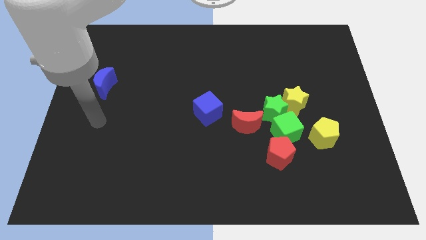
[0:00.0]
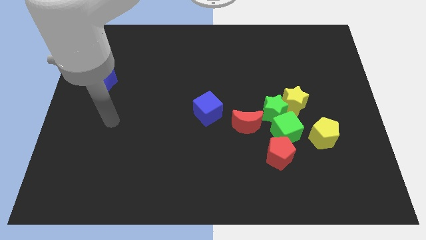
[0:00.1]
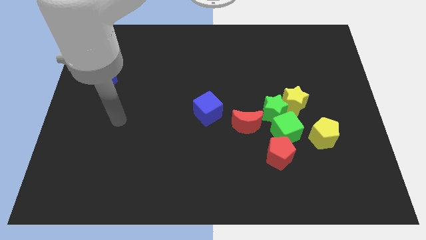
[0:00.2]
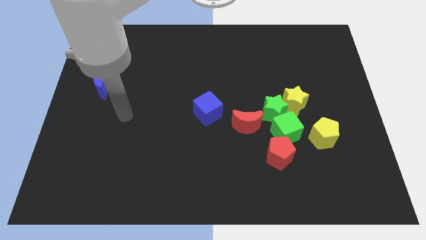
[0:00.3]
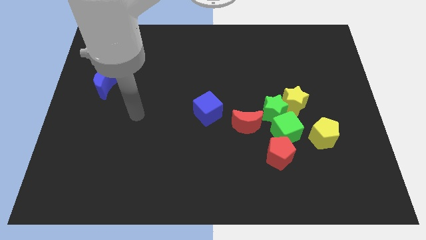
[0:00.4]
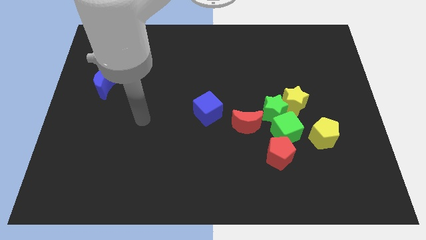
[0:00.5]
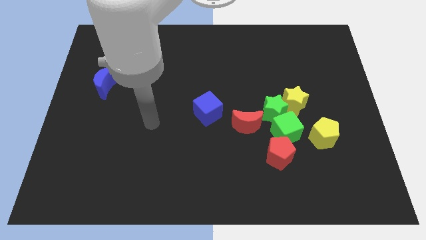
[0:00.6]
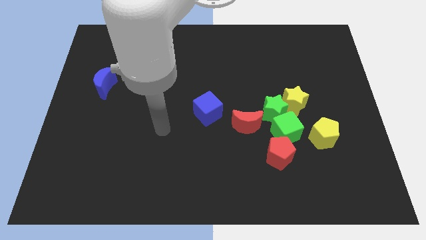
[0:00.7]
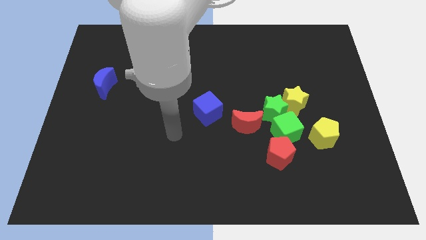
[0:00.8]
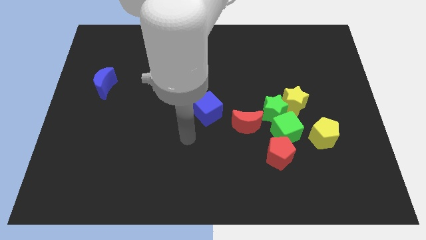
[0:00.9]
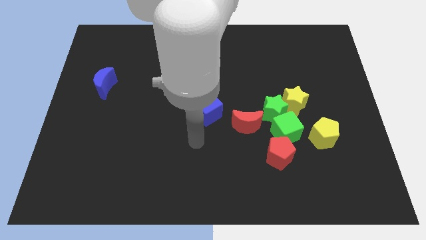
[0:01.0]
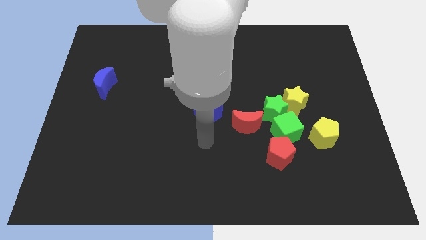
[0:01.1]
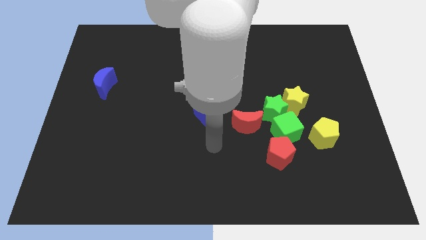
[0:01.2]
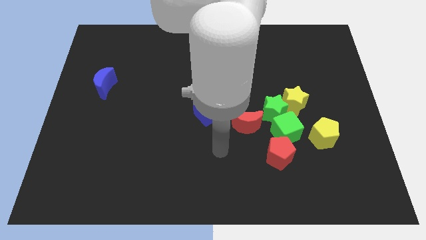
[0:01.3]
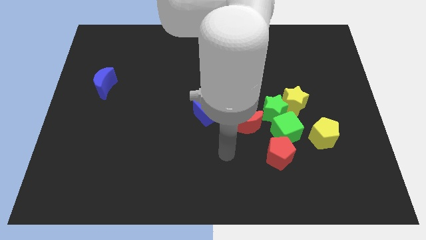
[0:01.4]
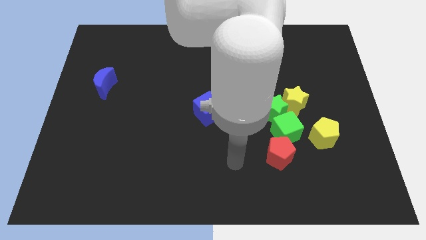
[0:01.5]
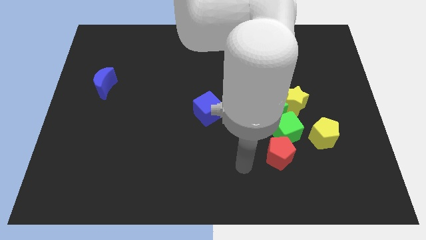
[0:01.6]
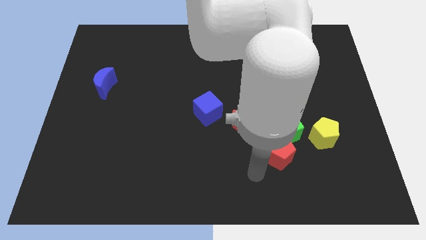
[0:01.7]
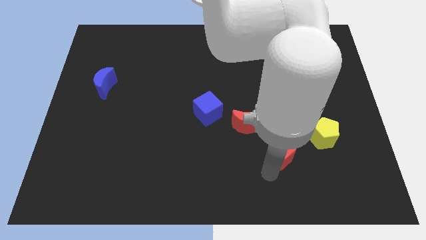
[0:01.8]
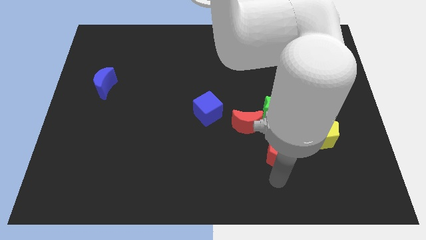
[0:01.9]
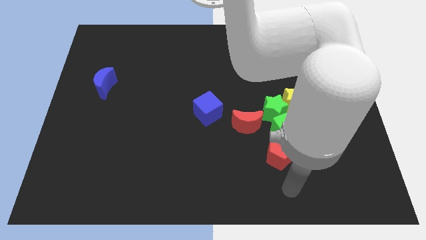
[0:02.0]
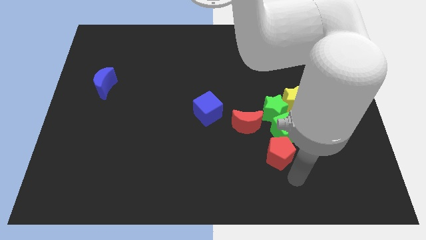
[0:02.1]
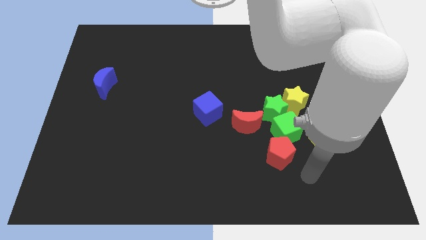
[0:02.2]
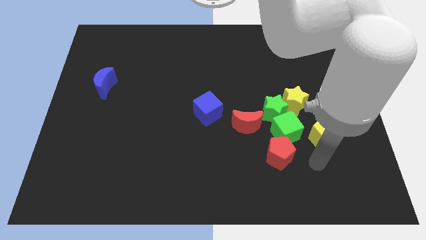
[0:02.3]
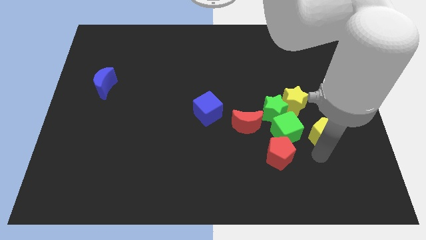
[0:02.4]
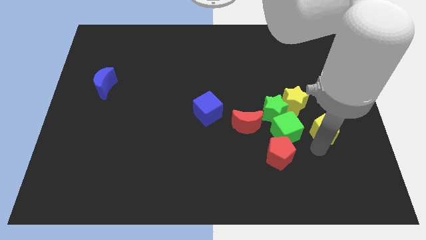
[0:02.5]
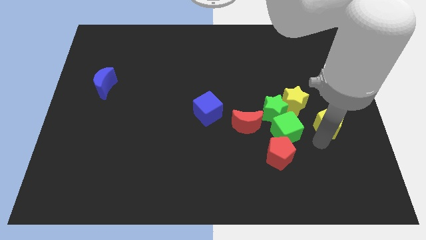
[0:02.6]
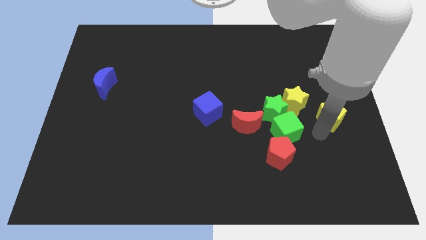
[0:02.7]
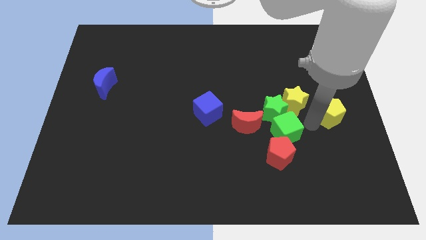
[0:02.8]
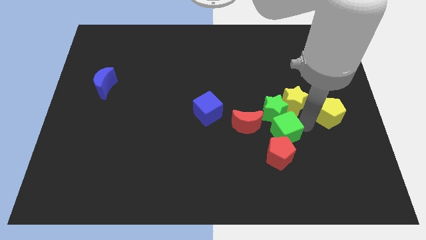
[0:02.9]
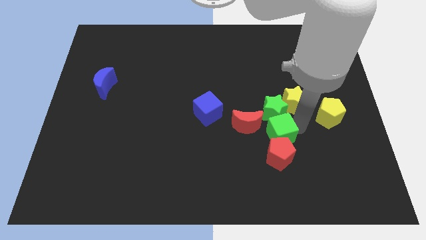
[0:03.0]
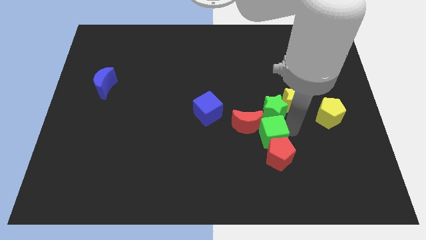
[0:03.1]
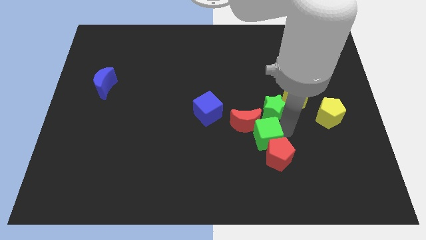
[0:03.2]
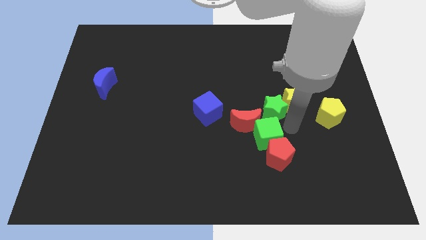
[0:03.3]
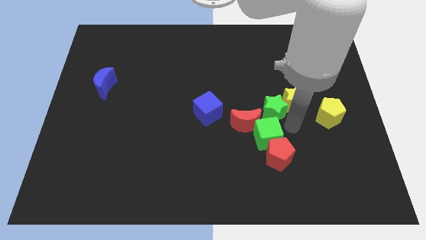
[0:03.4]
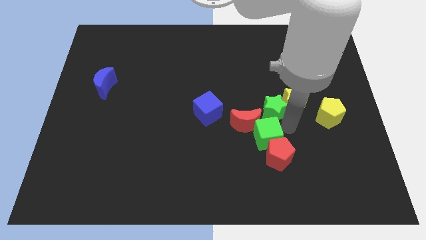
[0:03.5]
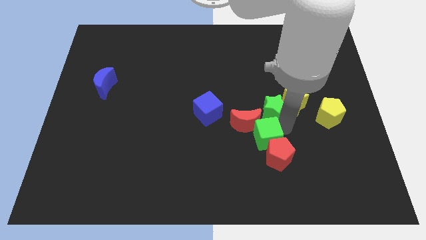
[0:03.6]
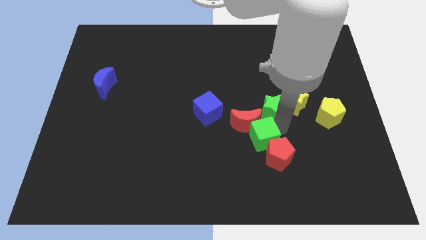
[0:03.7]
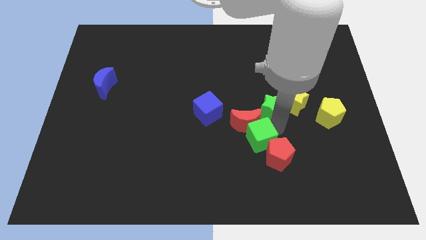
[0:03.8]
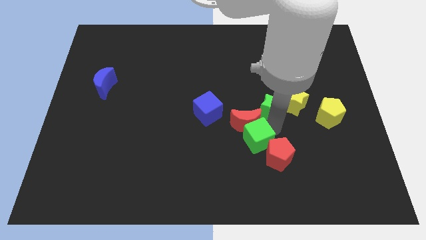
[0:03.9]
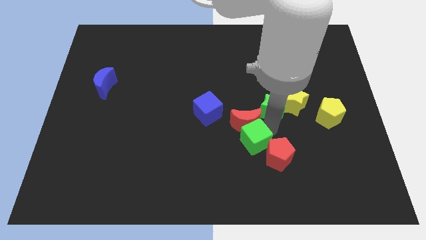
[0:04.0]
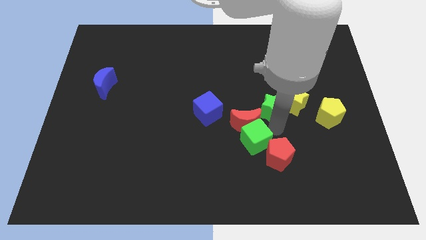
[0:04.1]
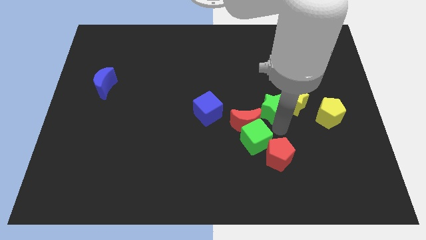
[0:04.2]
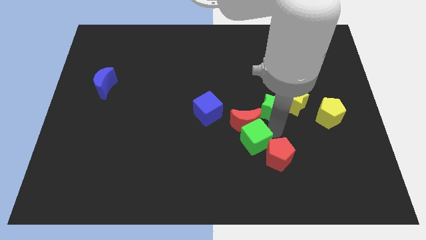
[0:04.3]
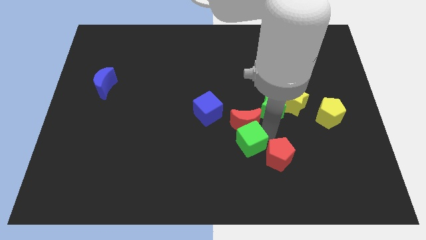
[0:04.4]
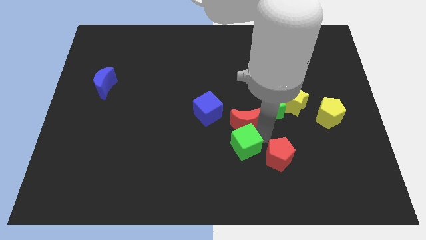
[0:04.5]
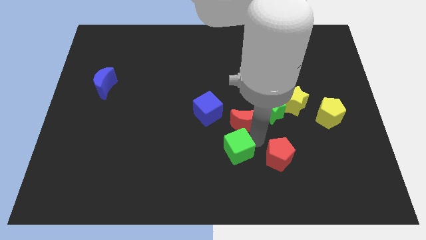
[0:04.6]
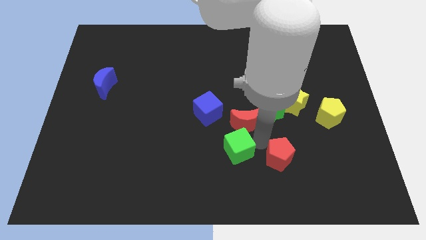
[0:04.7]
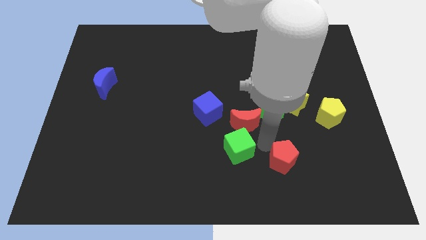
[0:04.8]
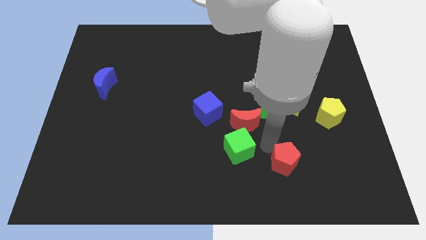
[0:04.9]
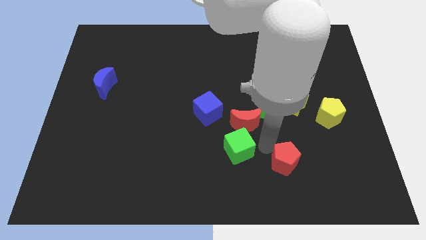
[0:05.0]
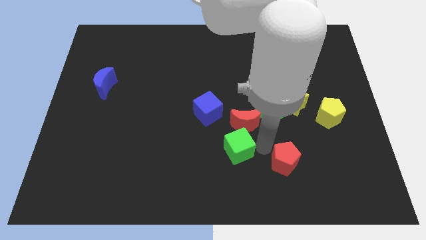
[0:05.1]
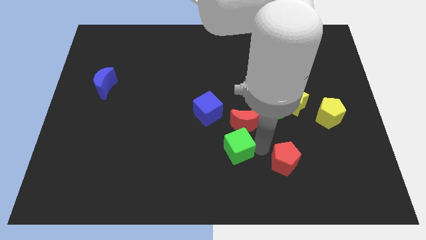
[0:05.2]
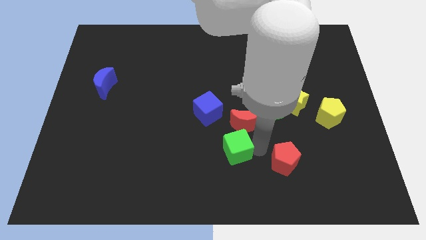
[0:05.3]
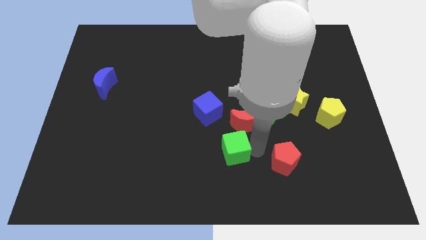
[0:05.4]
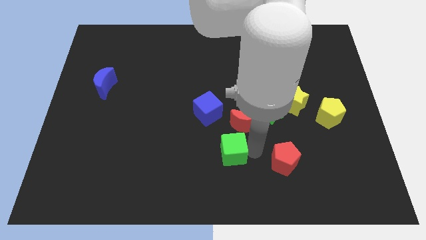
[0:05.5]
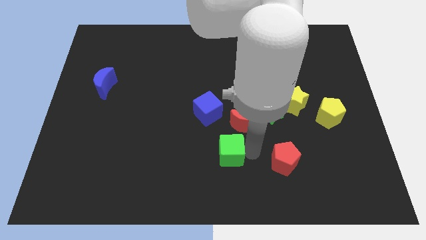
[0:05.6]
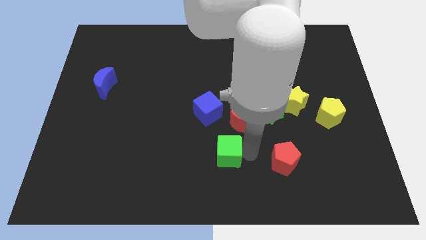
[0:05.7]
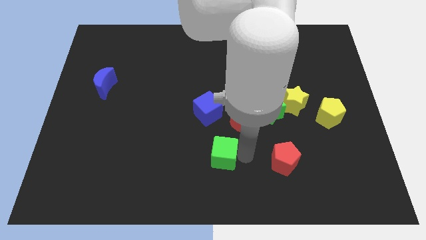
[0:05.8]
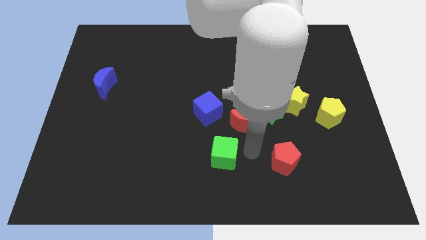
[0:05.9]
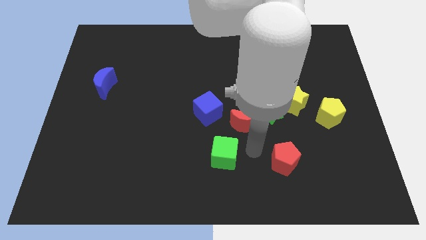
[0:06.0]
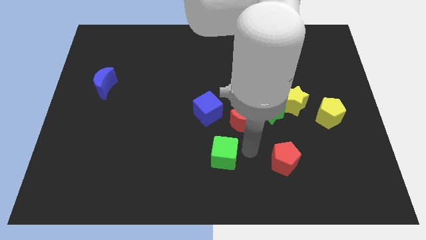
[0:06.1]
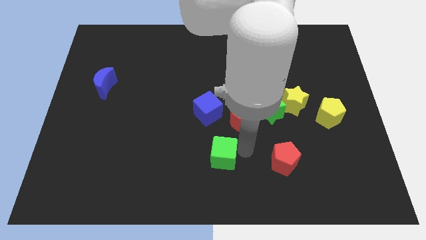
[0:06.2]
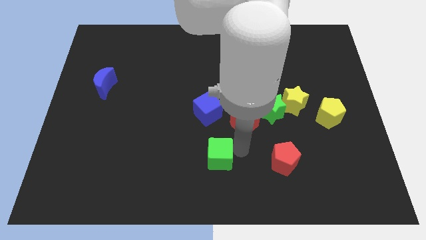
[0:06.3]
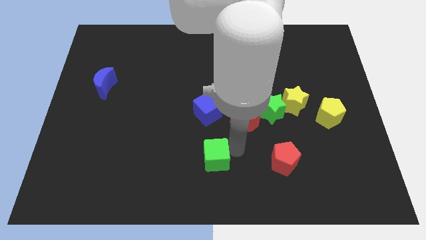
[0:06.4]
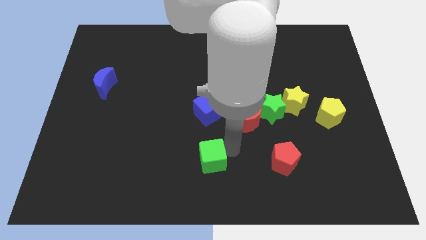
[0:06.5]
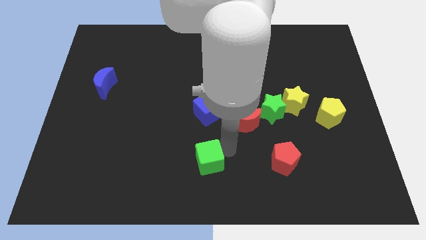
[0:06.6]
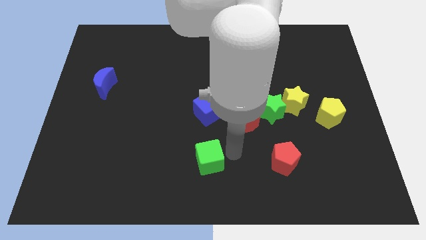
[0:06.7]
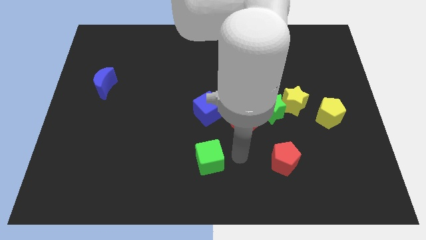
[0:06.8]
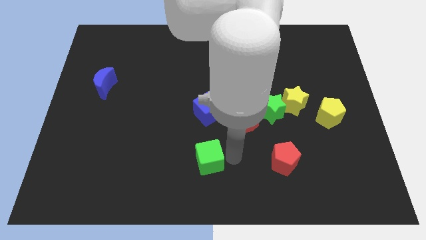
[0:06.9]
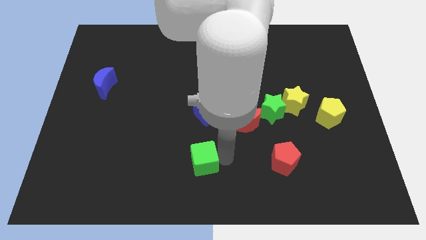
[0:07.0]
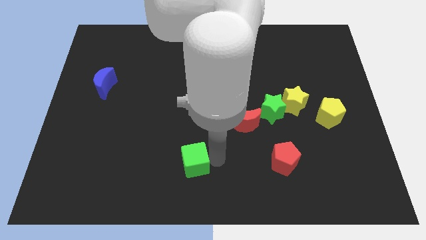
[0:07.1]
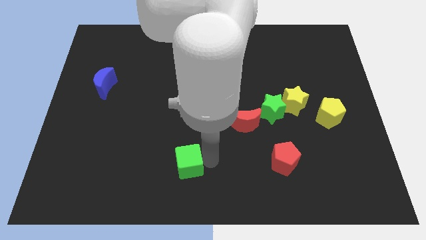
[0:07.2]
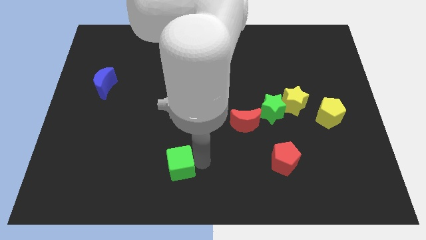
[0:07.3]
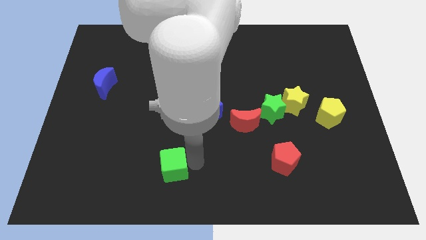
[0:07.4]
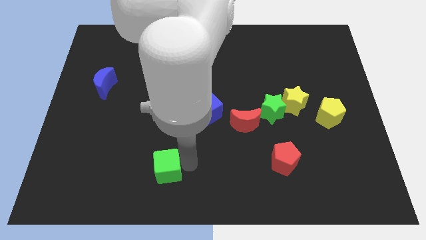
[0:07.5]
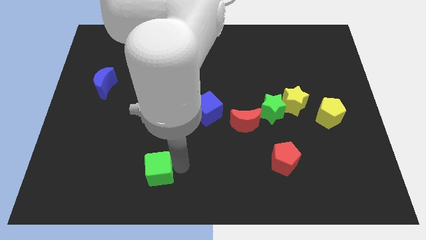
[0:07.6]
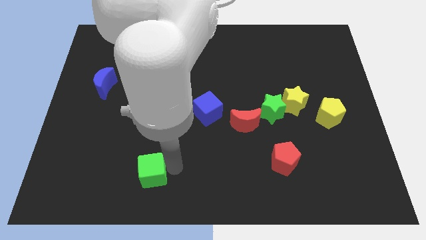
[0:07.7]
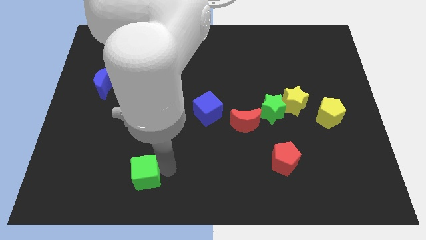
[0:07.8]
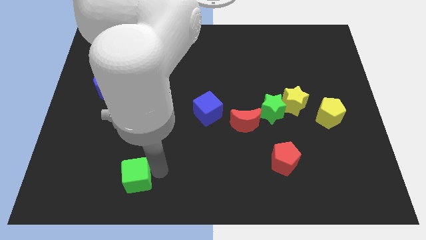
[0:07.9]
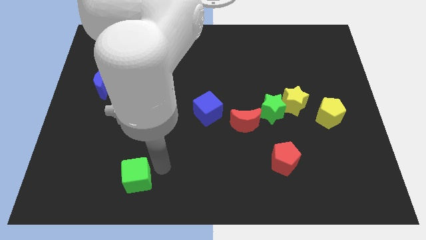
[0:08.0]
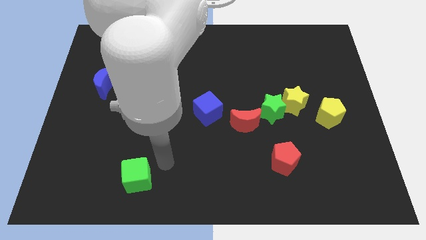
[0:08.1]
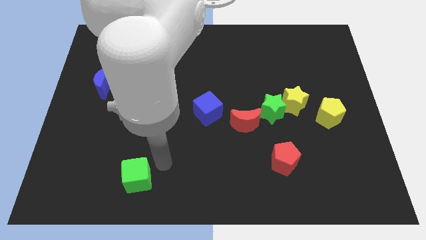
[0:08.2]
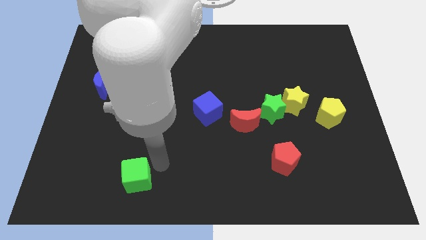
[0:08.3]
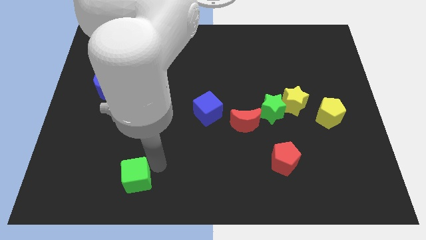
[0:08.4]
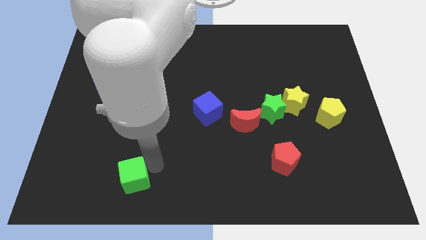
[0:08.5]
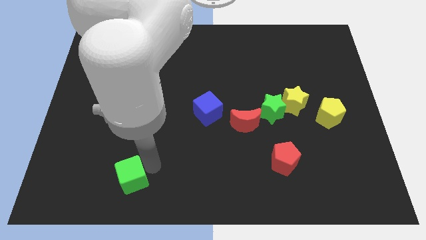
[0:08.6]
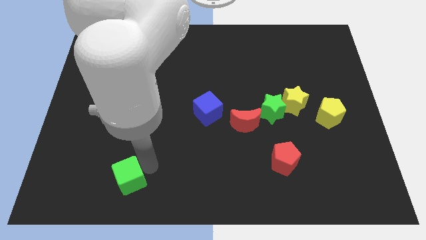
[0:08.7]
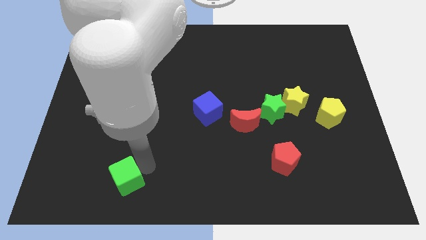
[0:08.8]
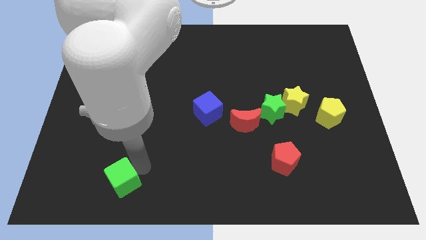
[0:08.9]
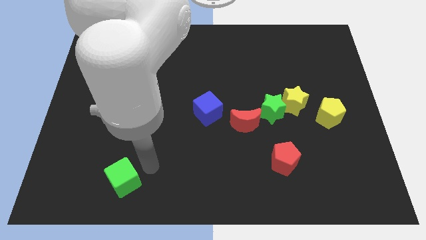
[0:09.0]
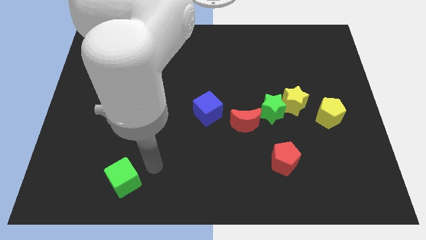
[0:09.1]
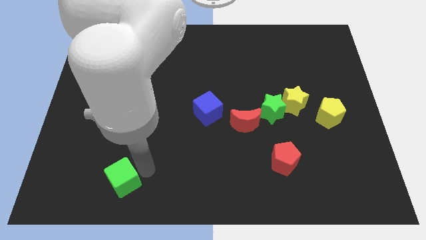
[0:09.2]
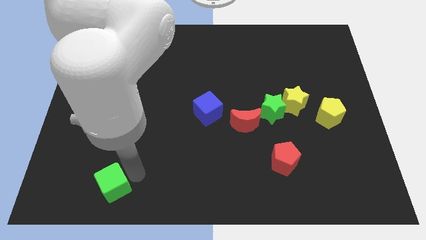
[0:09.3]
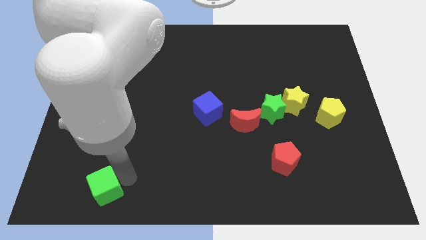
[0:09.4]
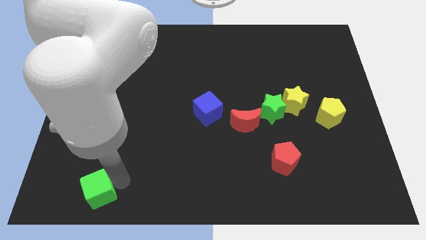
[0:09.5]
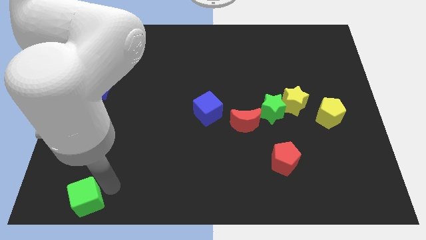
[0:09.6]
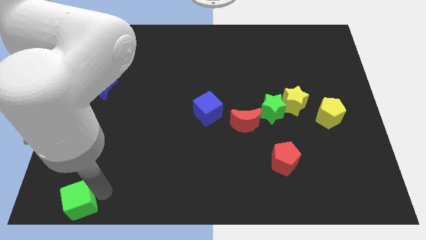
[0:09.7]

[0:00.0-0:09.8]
move the green cube to the bottom left corner
